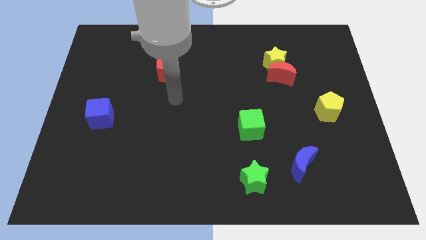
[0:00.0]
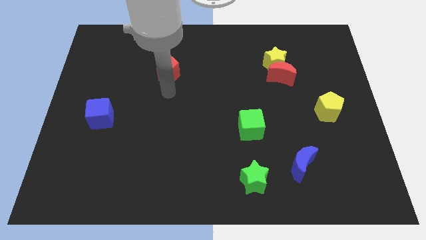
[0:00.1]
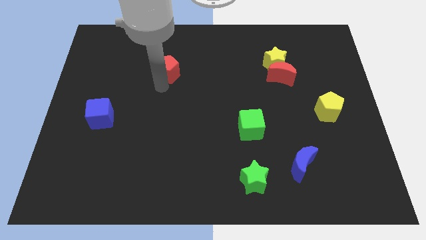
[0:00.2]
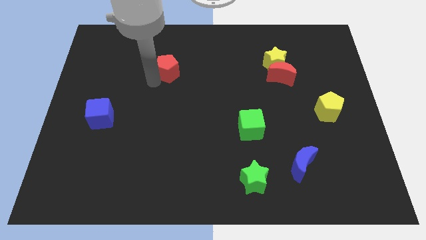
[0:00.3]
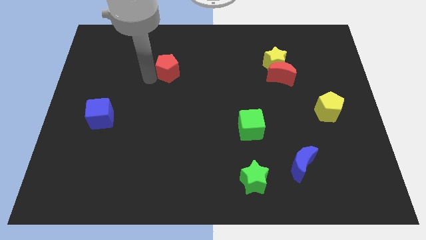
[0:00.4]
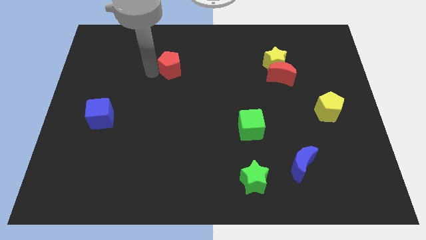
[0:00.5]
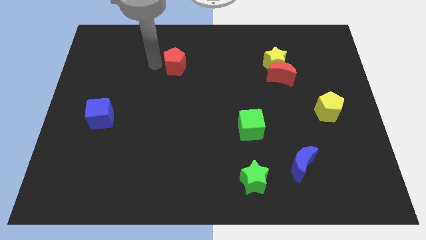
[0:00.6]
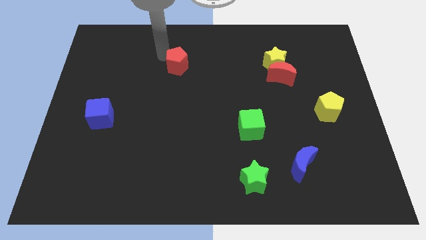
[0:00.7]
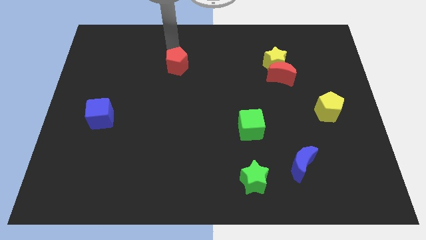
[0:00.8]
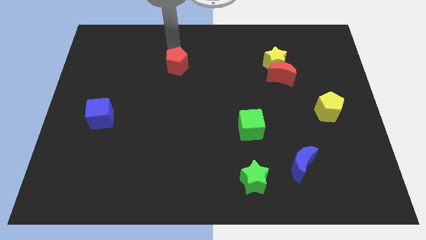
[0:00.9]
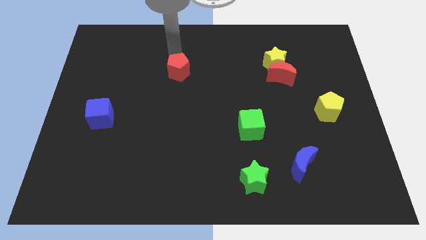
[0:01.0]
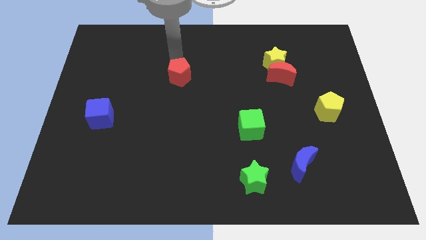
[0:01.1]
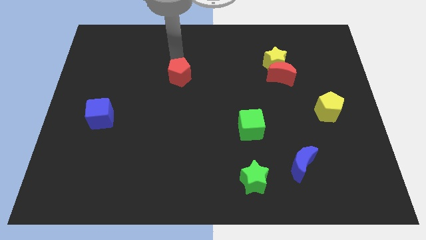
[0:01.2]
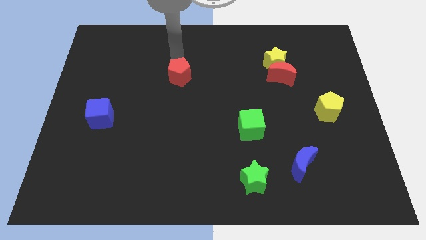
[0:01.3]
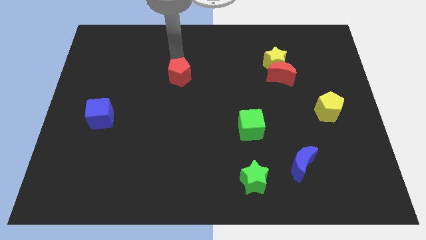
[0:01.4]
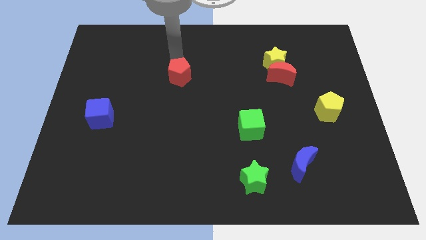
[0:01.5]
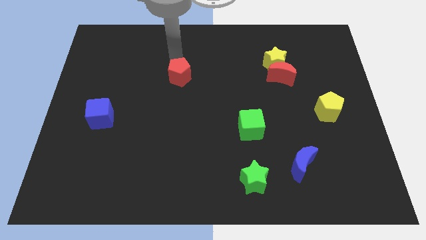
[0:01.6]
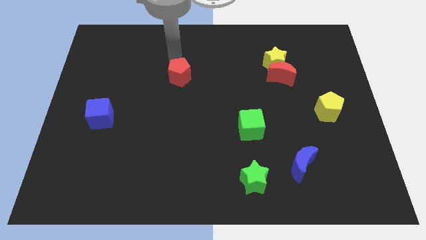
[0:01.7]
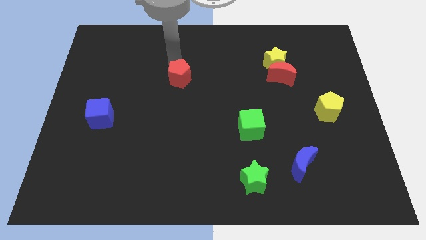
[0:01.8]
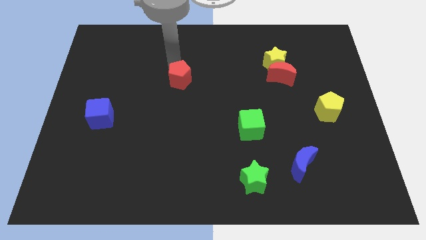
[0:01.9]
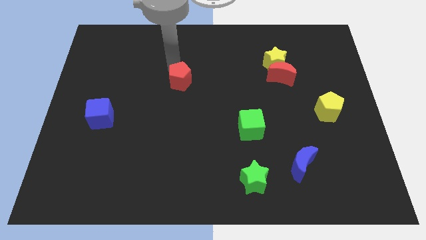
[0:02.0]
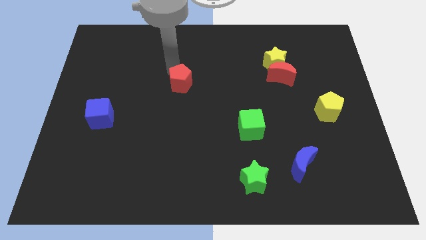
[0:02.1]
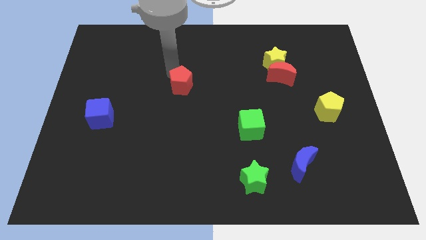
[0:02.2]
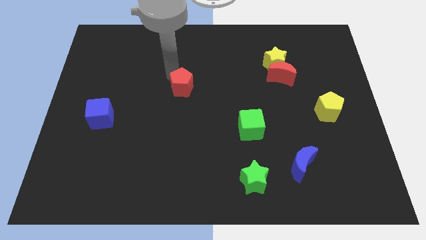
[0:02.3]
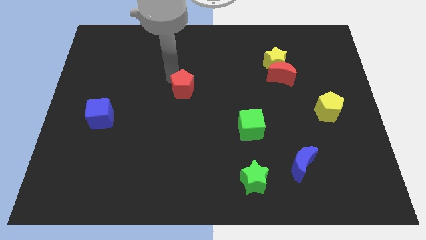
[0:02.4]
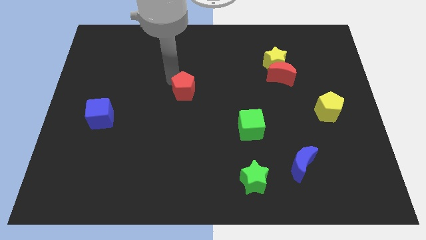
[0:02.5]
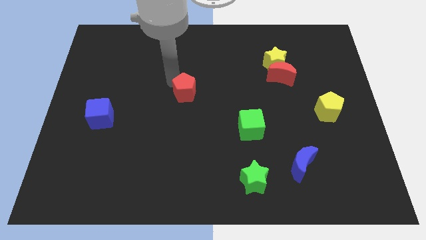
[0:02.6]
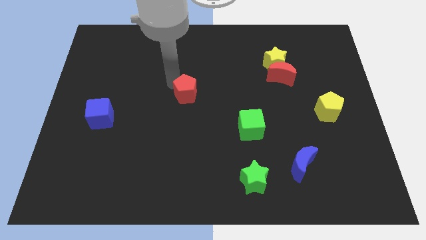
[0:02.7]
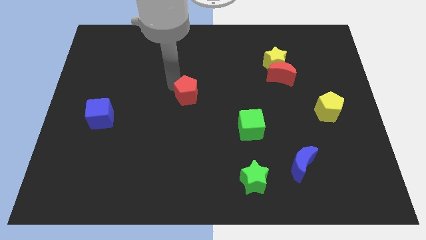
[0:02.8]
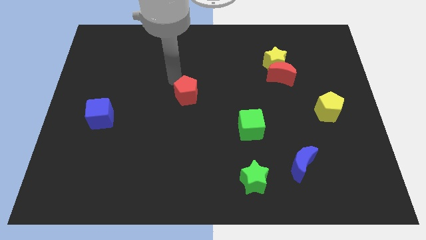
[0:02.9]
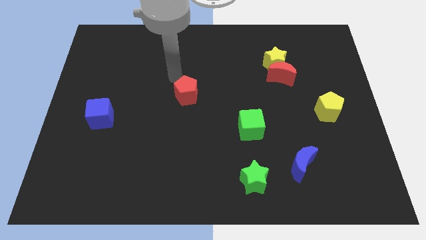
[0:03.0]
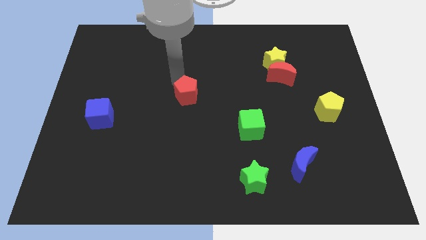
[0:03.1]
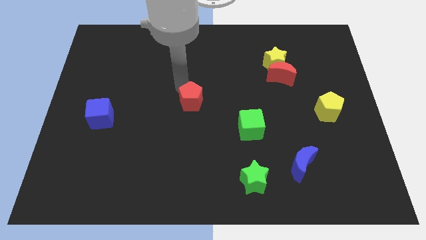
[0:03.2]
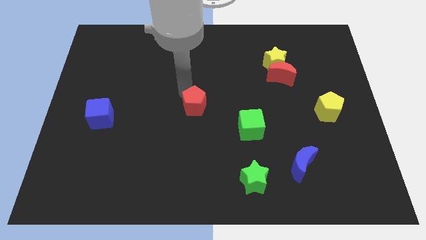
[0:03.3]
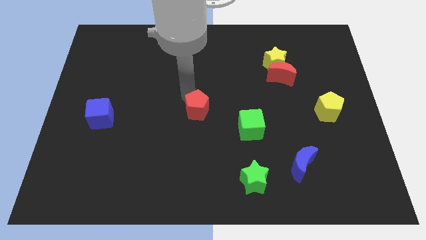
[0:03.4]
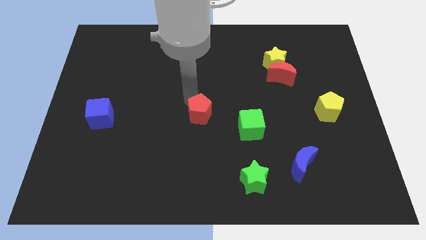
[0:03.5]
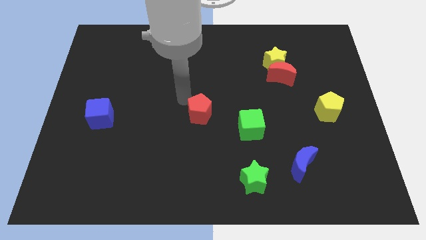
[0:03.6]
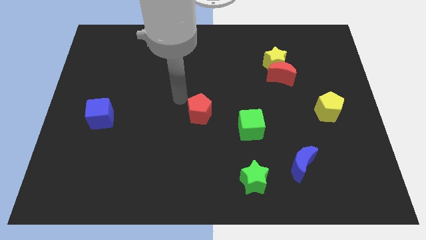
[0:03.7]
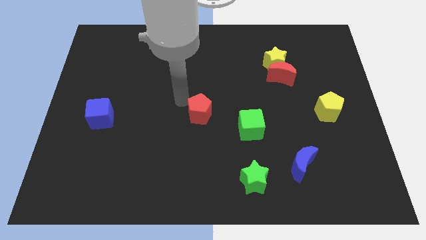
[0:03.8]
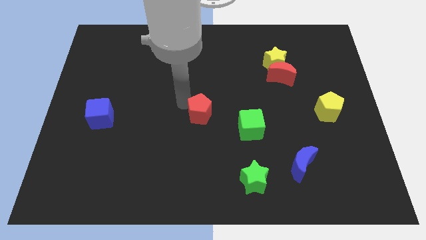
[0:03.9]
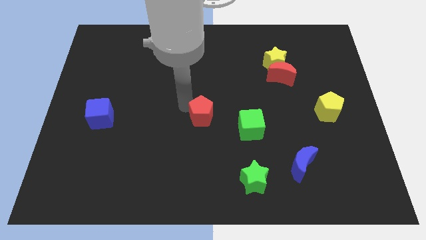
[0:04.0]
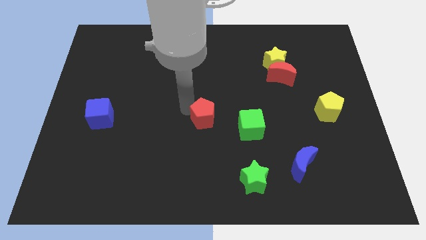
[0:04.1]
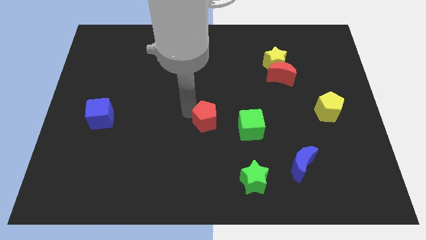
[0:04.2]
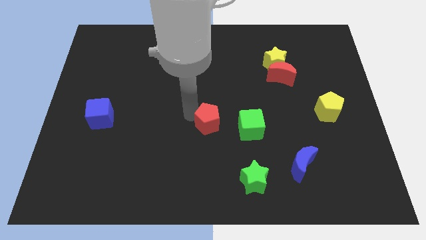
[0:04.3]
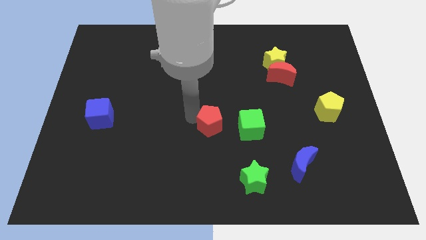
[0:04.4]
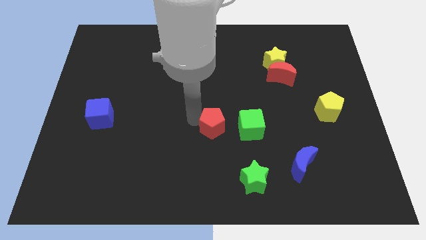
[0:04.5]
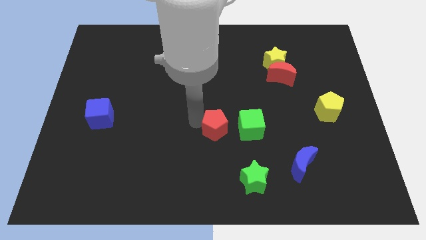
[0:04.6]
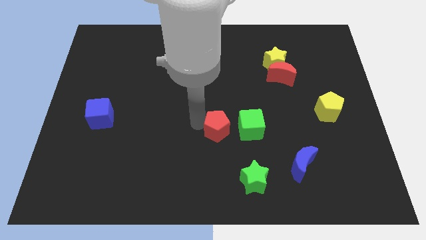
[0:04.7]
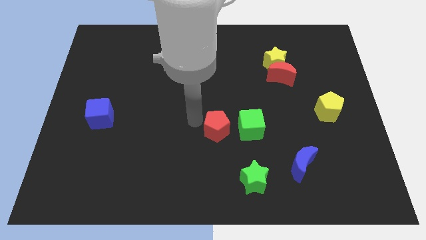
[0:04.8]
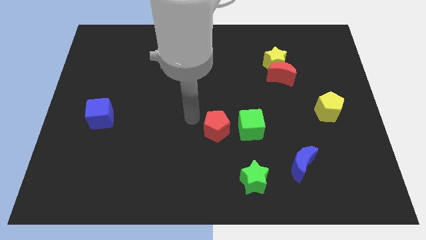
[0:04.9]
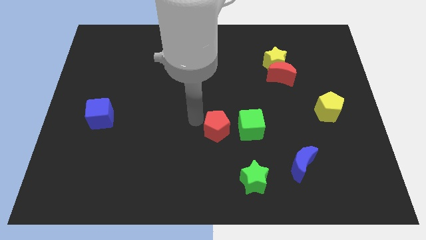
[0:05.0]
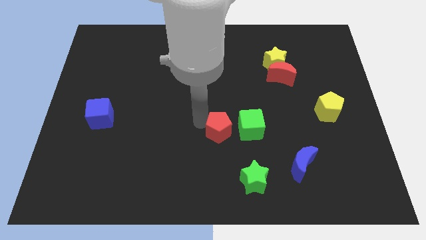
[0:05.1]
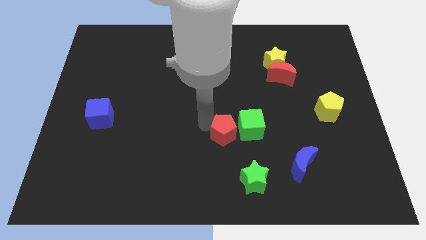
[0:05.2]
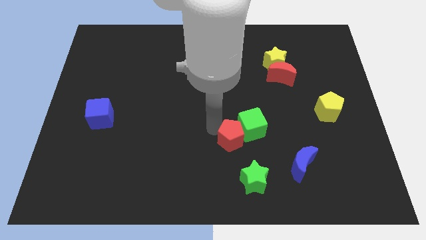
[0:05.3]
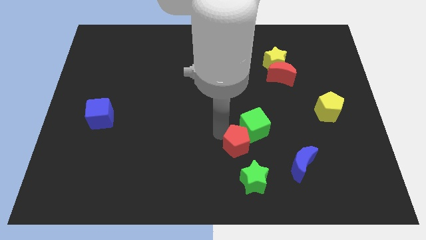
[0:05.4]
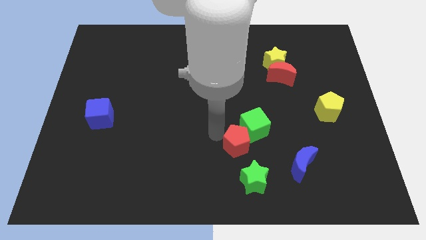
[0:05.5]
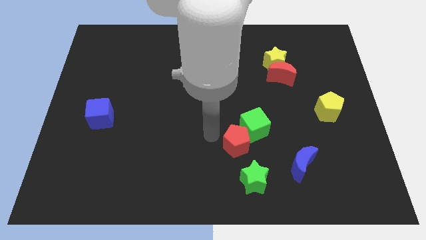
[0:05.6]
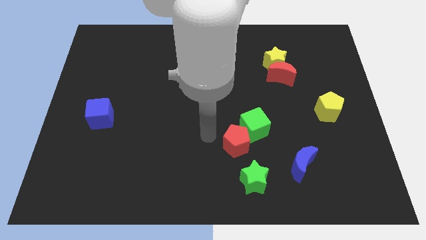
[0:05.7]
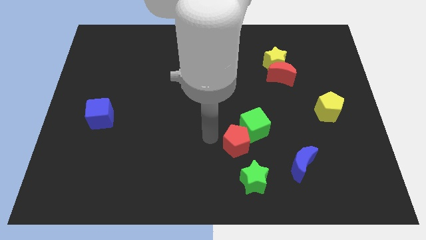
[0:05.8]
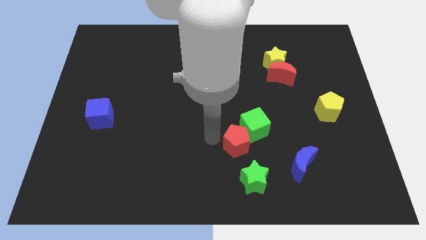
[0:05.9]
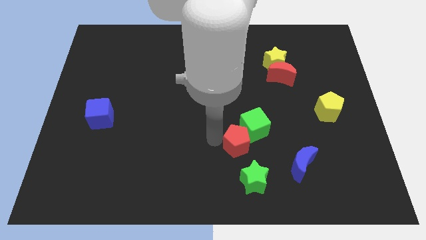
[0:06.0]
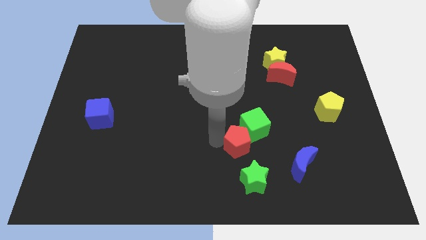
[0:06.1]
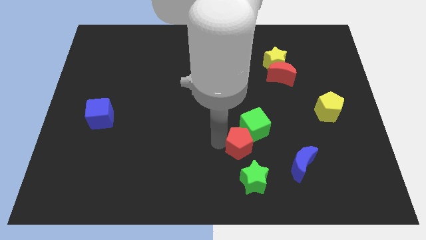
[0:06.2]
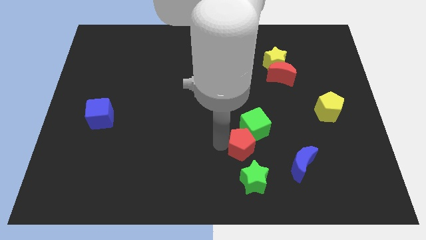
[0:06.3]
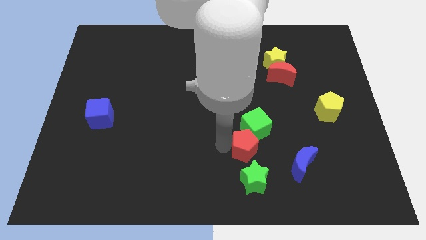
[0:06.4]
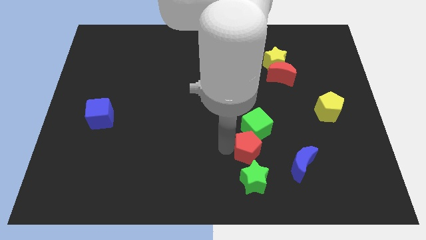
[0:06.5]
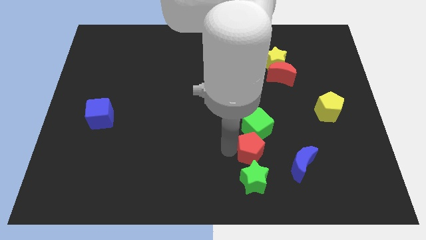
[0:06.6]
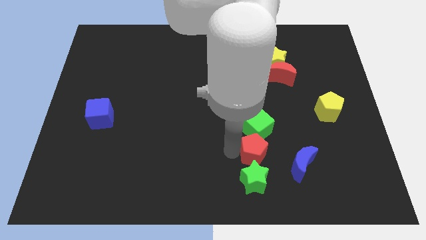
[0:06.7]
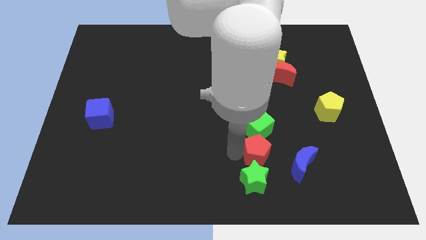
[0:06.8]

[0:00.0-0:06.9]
slide the red pentagon to the top left of the blue moon

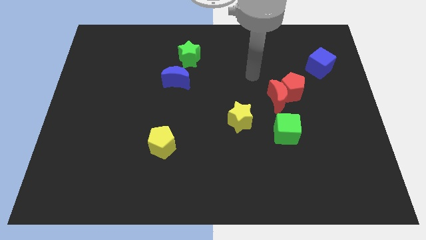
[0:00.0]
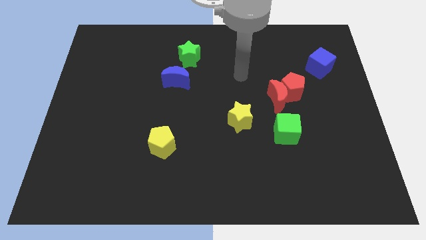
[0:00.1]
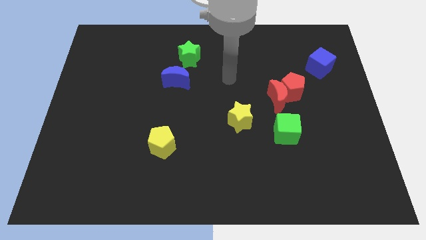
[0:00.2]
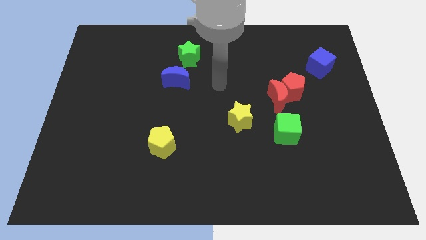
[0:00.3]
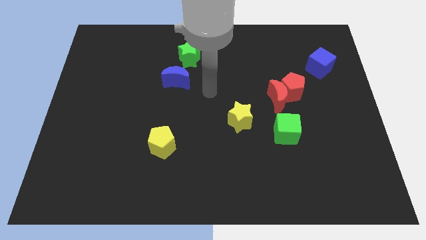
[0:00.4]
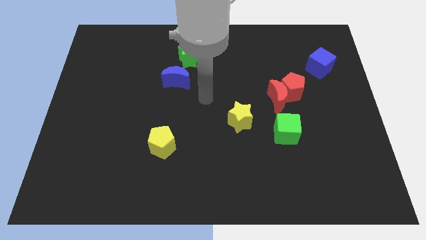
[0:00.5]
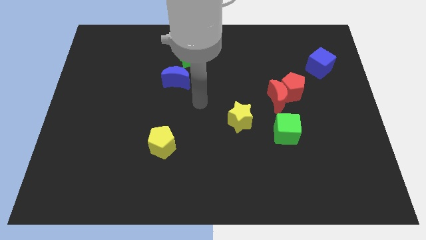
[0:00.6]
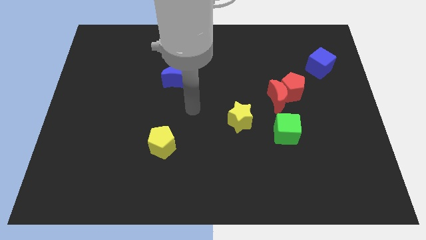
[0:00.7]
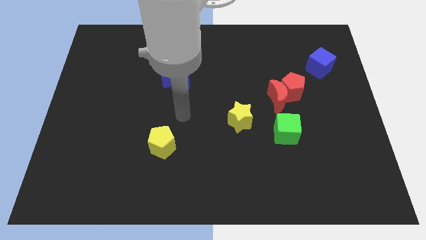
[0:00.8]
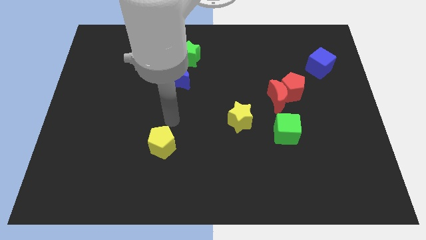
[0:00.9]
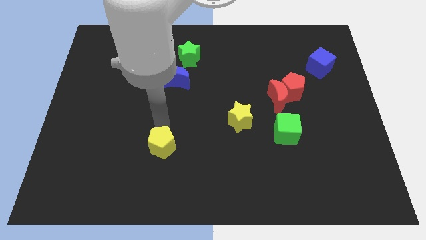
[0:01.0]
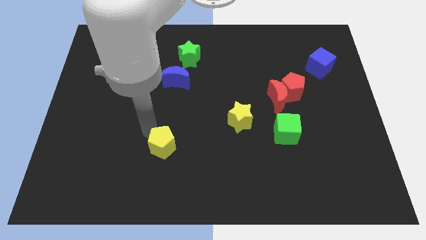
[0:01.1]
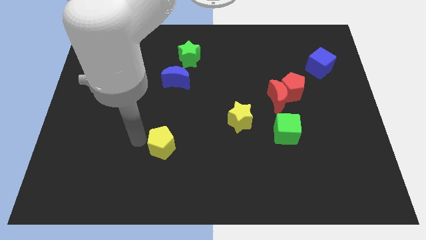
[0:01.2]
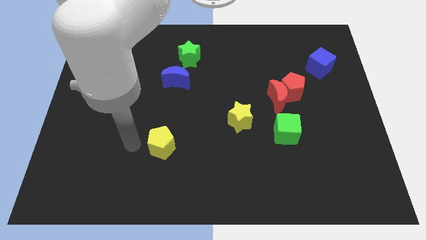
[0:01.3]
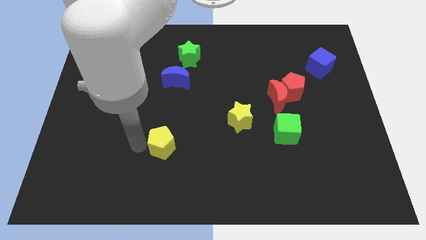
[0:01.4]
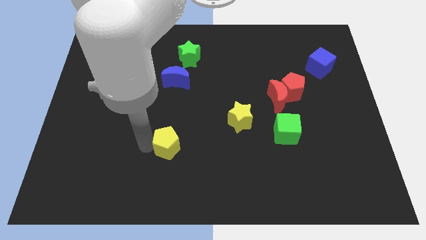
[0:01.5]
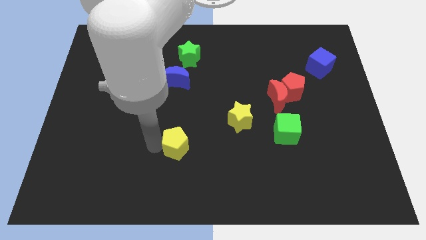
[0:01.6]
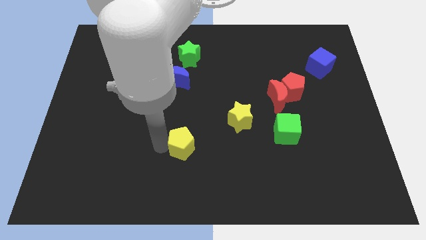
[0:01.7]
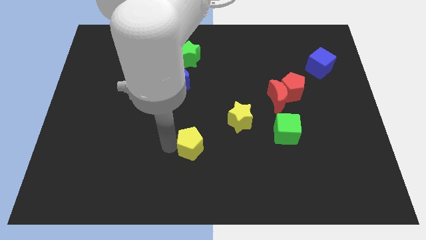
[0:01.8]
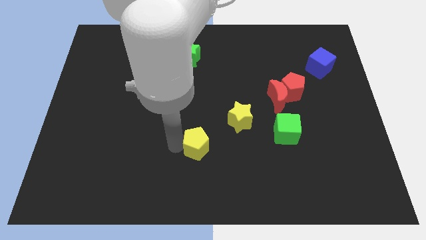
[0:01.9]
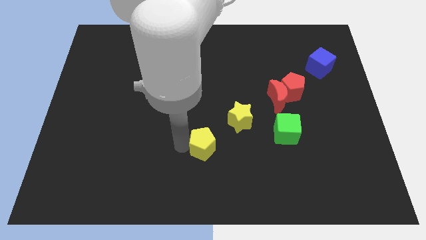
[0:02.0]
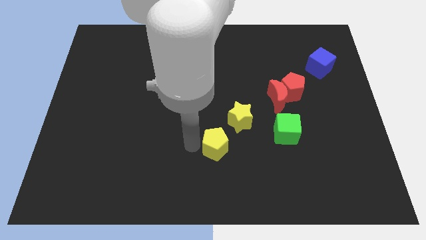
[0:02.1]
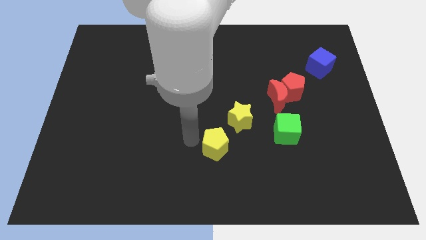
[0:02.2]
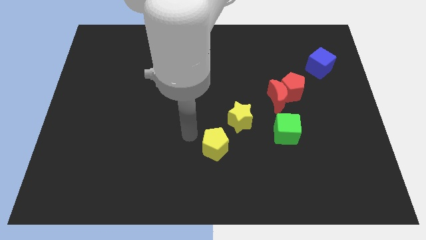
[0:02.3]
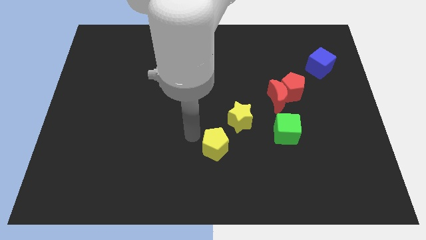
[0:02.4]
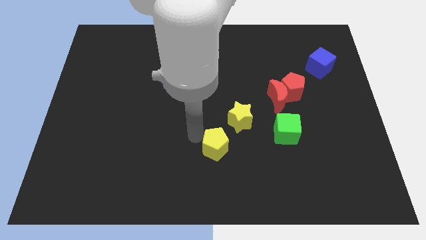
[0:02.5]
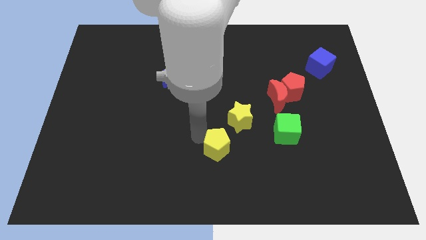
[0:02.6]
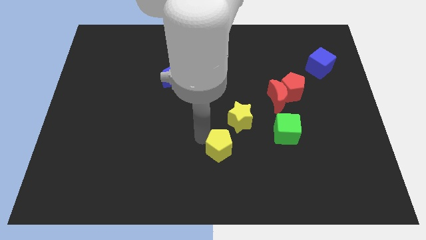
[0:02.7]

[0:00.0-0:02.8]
put the yellow pentagon to the bottom of the yellow star
